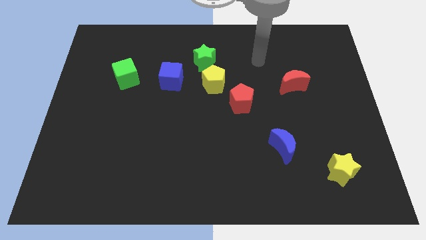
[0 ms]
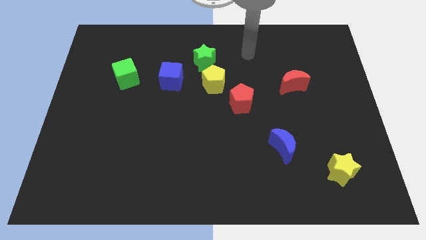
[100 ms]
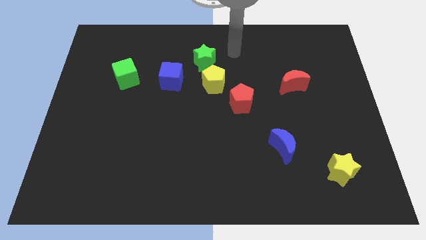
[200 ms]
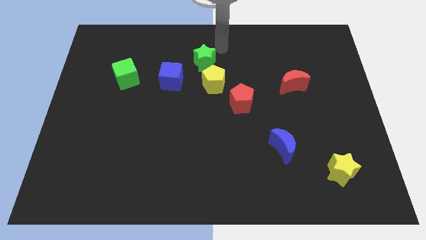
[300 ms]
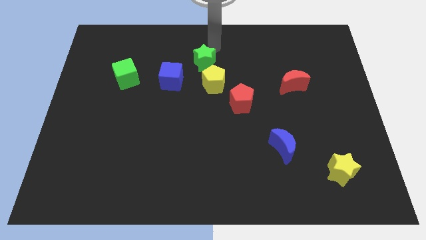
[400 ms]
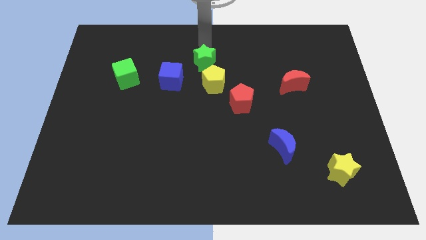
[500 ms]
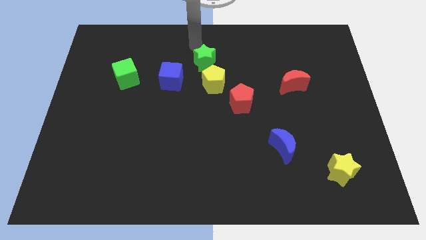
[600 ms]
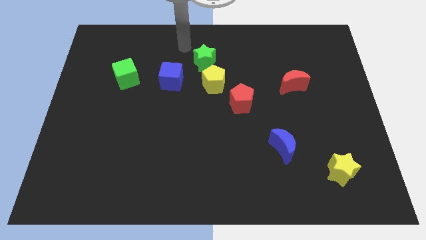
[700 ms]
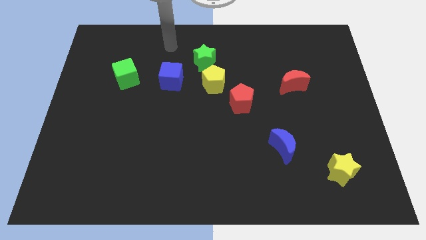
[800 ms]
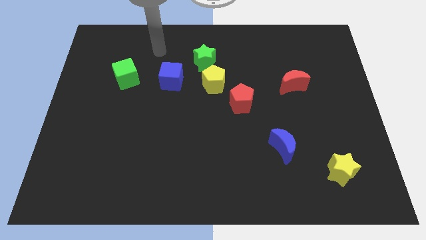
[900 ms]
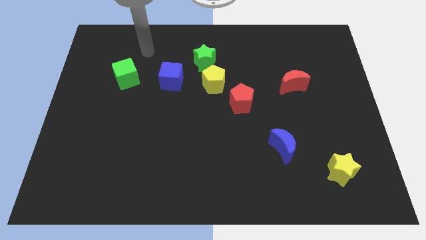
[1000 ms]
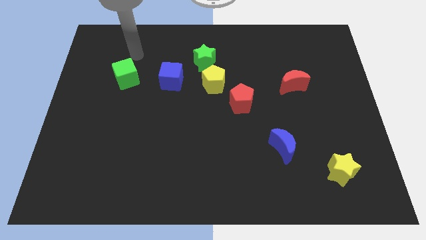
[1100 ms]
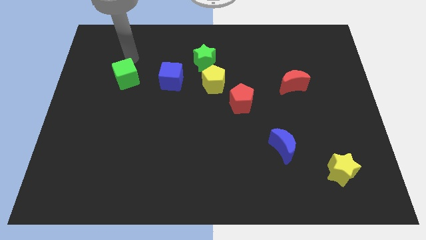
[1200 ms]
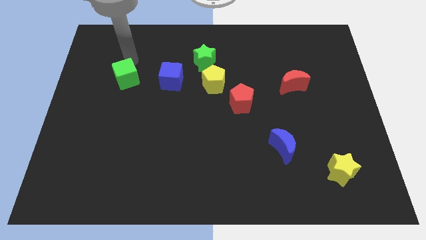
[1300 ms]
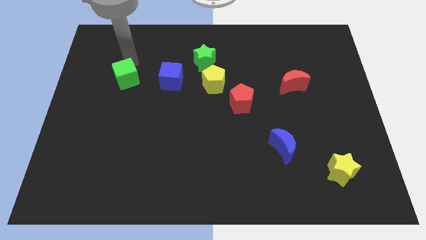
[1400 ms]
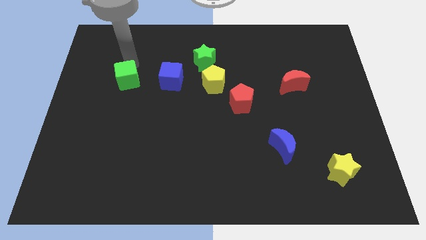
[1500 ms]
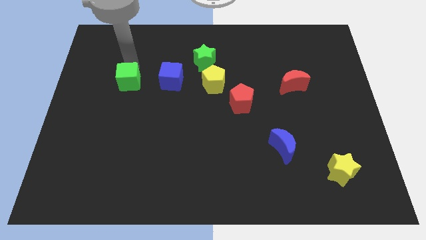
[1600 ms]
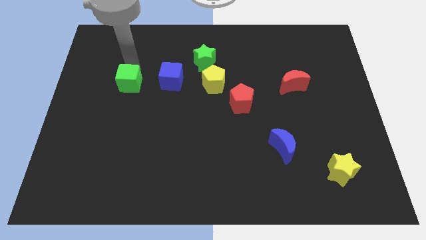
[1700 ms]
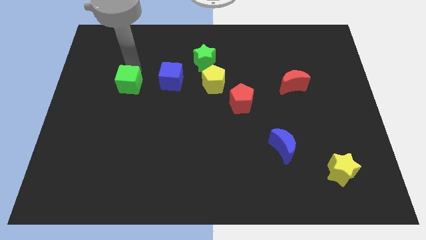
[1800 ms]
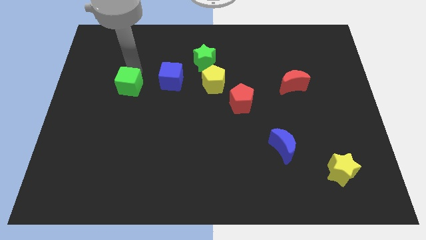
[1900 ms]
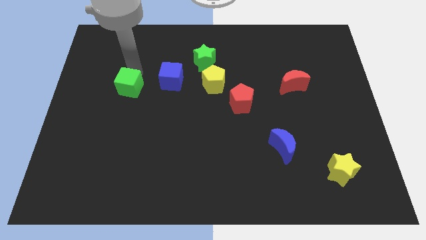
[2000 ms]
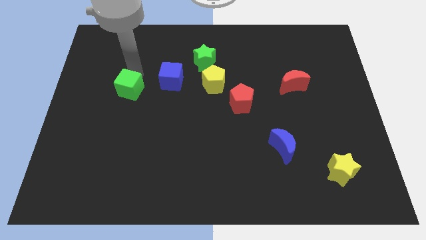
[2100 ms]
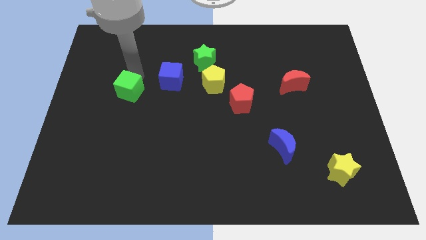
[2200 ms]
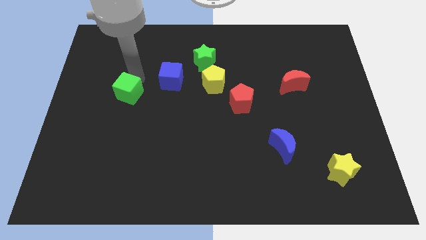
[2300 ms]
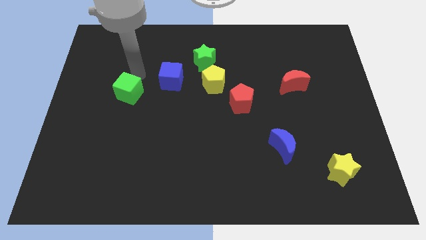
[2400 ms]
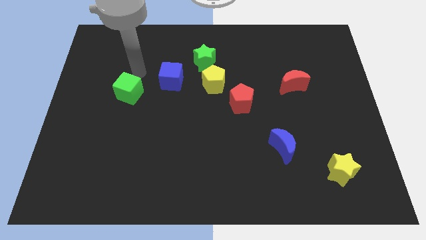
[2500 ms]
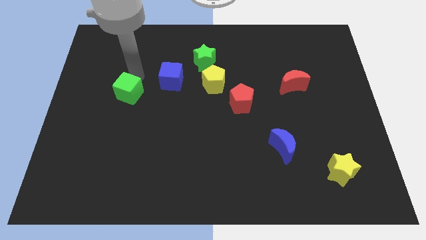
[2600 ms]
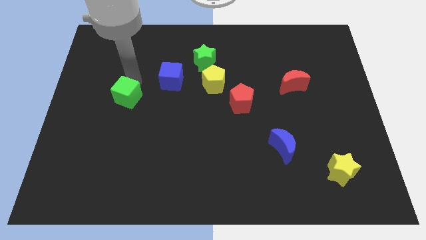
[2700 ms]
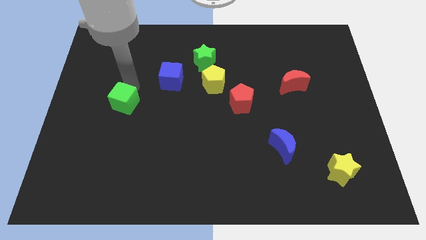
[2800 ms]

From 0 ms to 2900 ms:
slightly move the green cube down

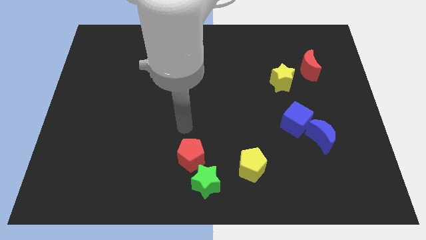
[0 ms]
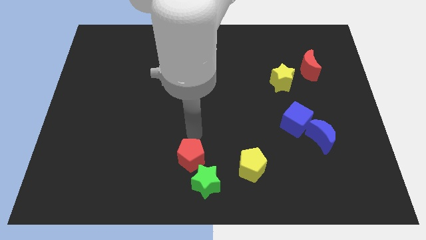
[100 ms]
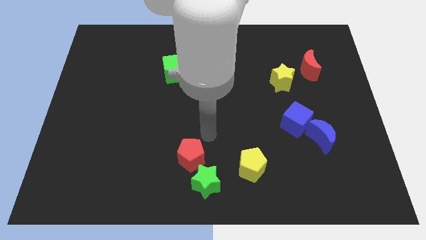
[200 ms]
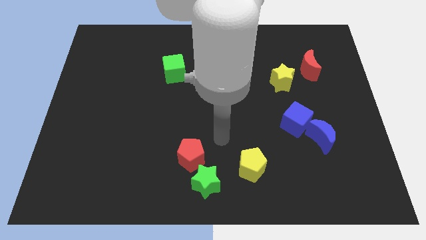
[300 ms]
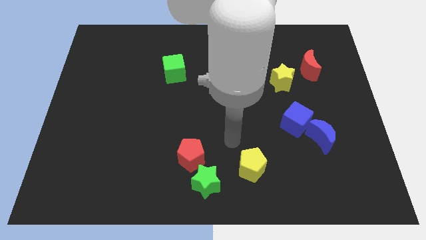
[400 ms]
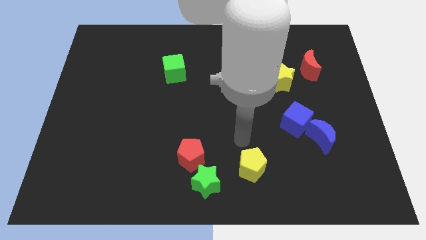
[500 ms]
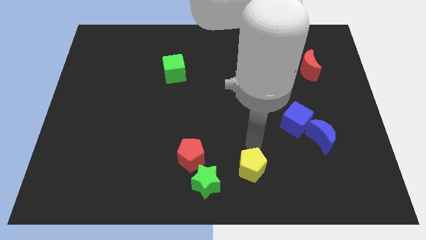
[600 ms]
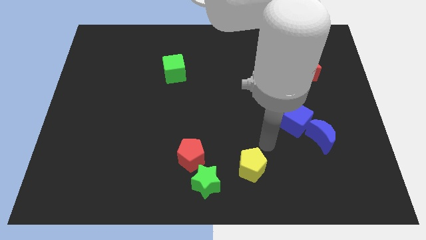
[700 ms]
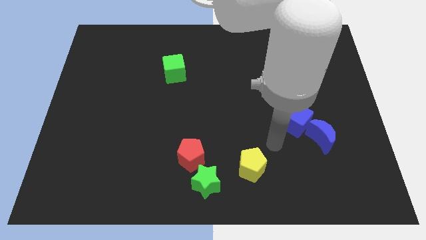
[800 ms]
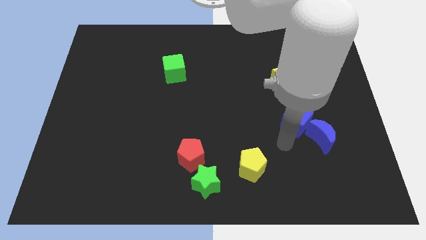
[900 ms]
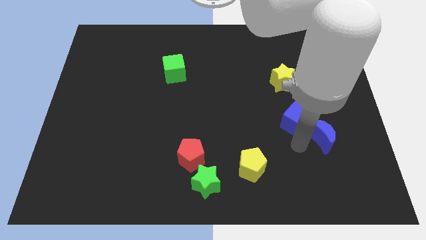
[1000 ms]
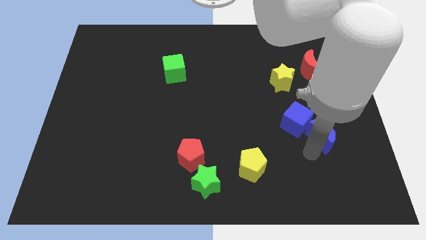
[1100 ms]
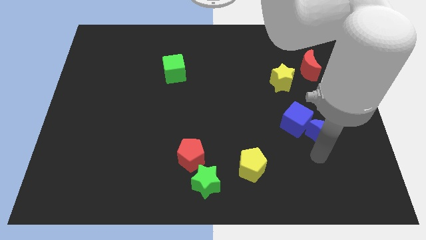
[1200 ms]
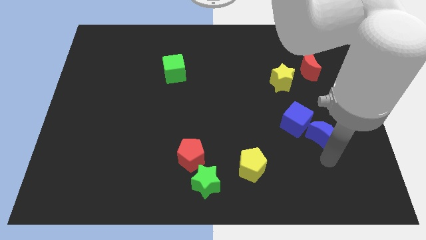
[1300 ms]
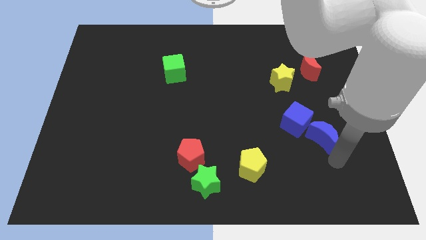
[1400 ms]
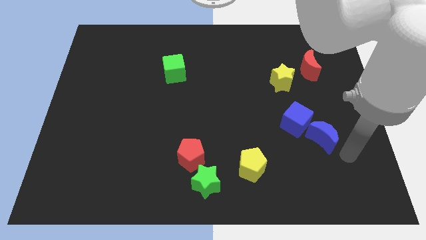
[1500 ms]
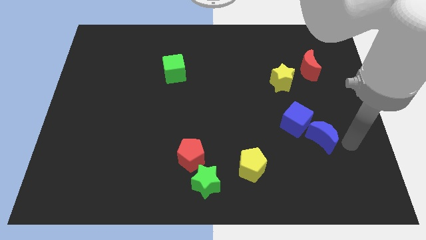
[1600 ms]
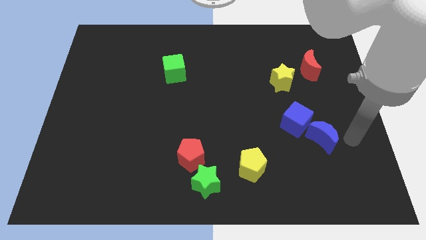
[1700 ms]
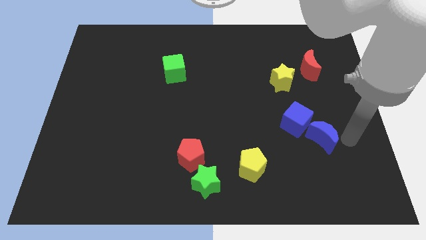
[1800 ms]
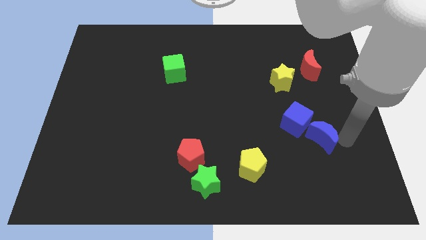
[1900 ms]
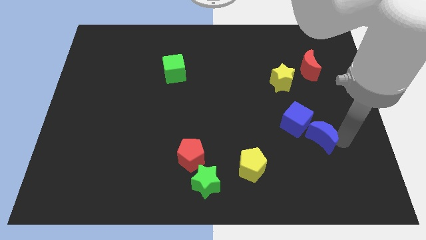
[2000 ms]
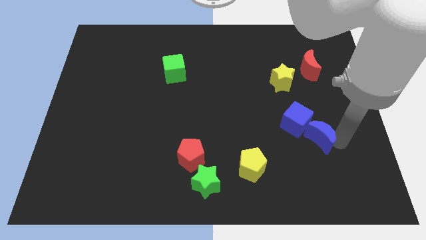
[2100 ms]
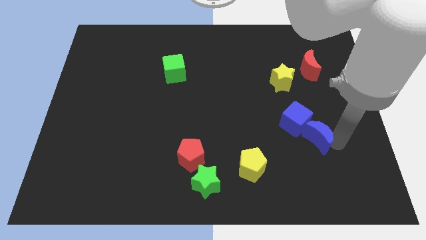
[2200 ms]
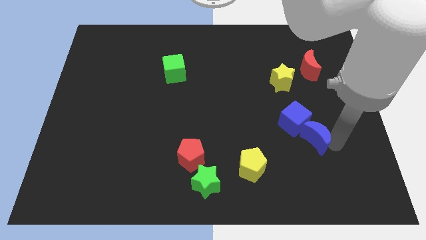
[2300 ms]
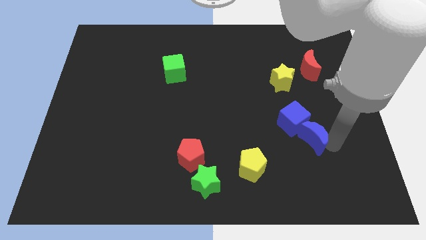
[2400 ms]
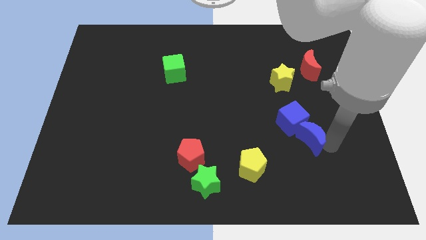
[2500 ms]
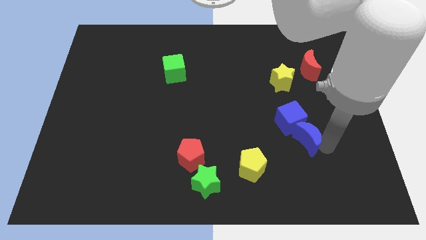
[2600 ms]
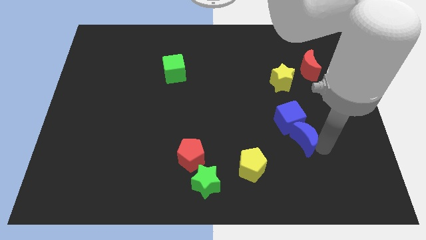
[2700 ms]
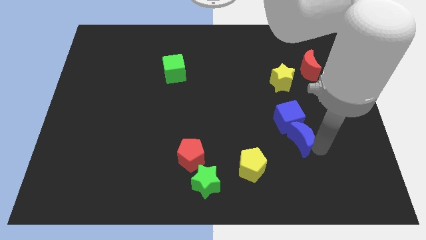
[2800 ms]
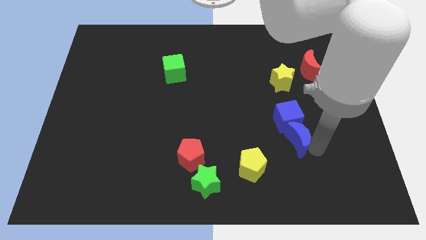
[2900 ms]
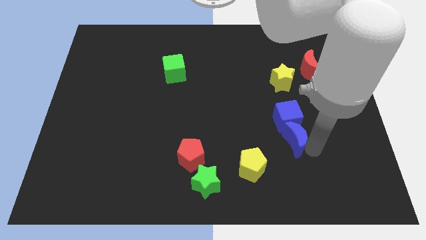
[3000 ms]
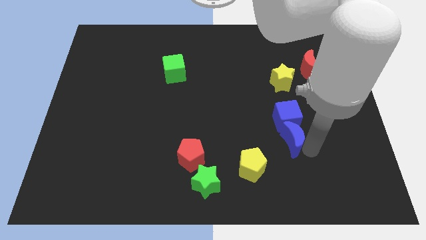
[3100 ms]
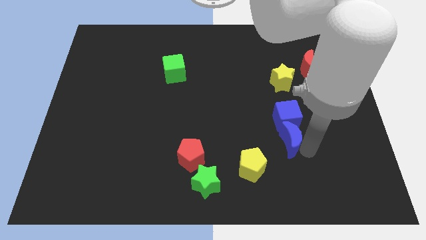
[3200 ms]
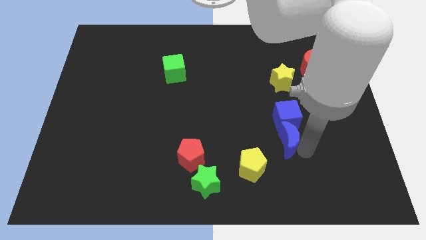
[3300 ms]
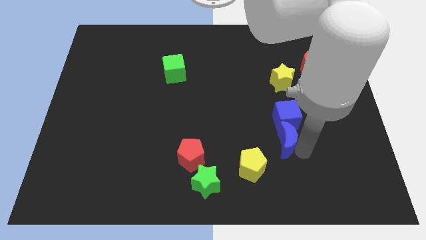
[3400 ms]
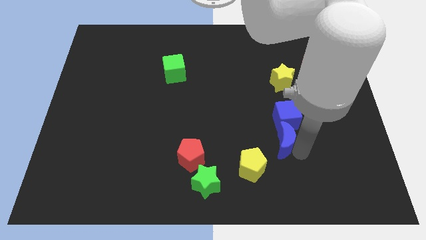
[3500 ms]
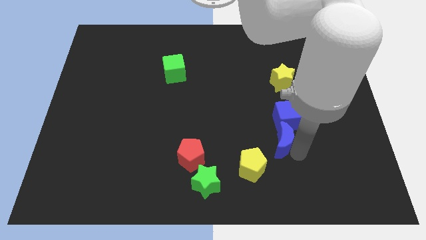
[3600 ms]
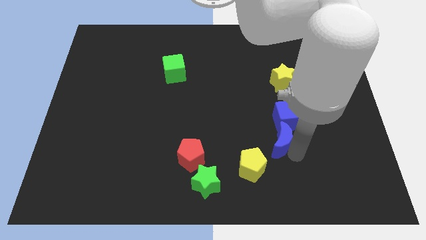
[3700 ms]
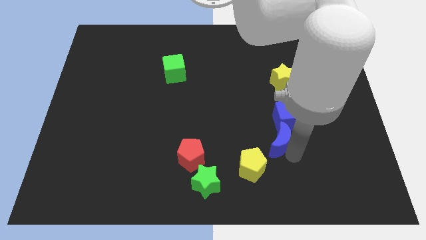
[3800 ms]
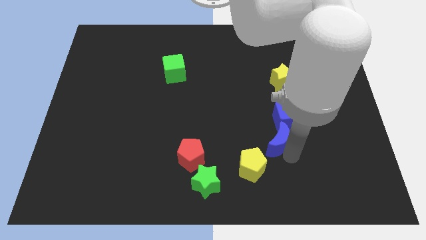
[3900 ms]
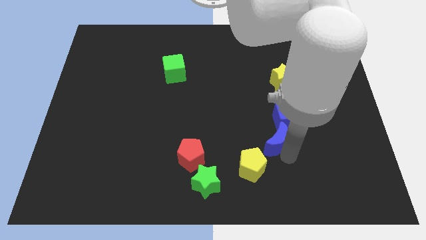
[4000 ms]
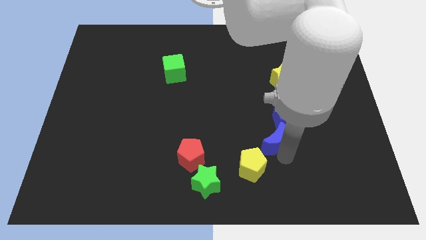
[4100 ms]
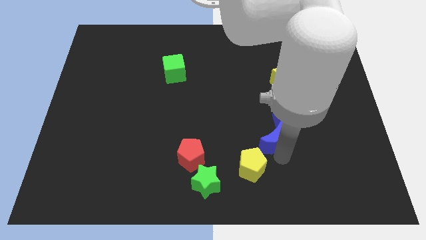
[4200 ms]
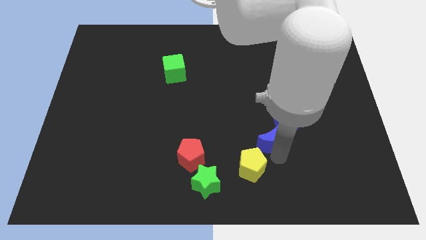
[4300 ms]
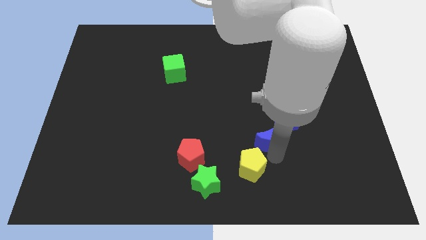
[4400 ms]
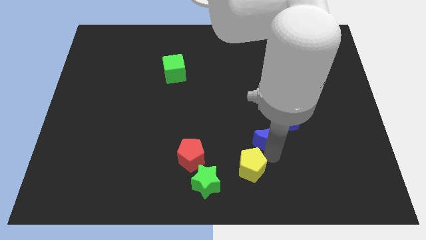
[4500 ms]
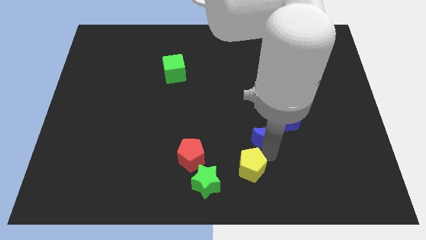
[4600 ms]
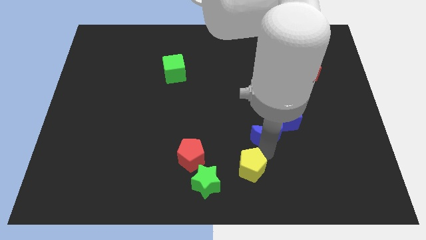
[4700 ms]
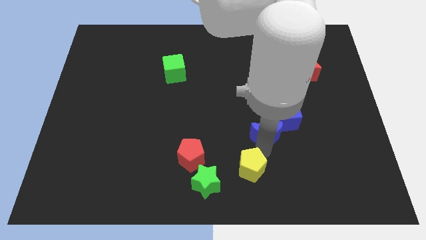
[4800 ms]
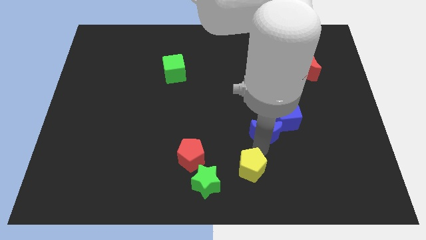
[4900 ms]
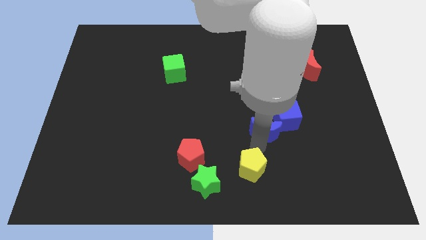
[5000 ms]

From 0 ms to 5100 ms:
push the blue moon diagonally upwards and to the left a little bit
